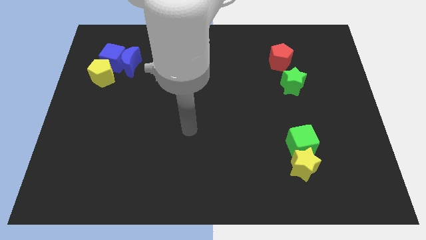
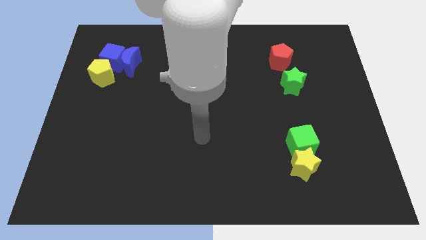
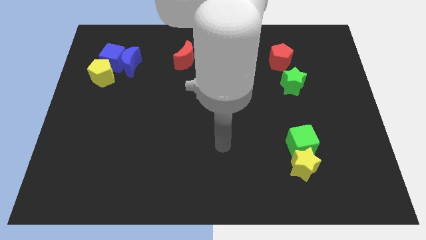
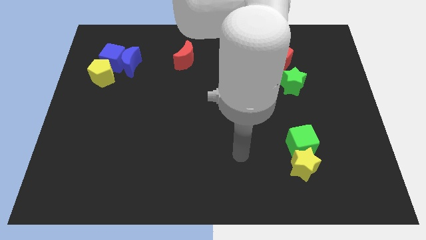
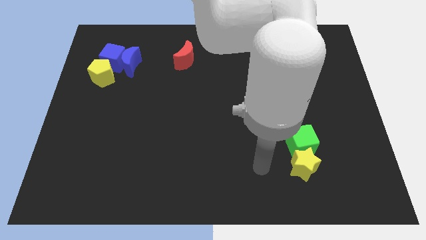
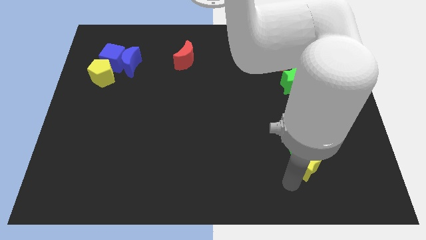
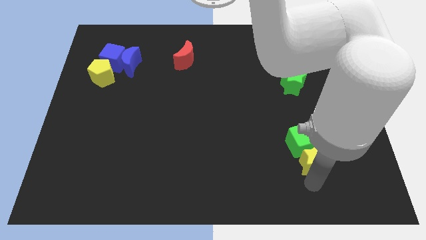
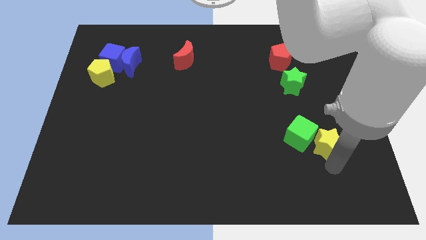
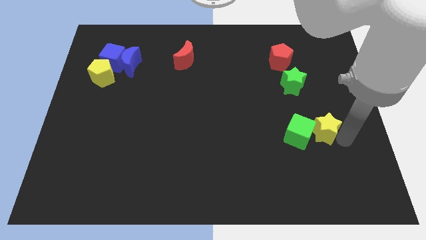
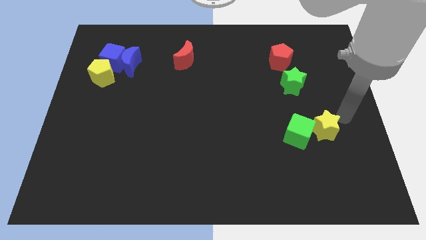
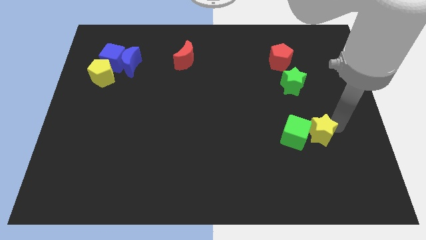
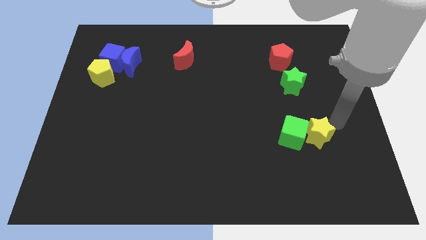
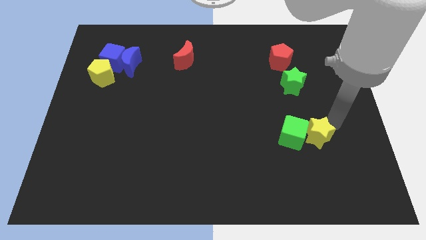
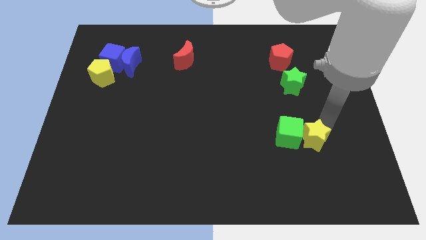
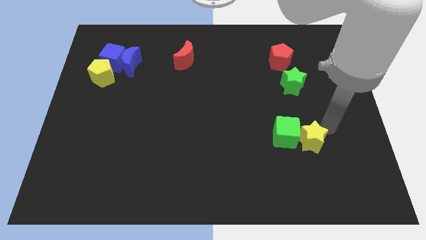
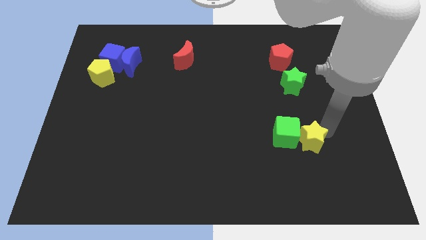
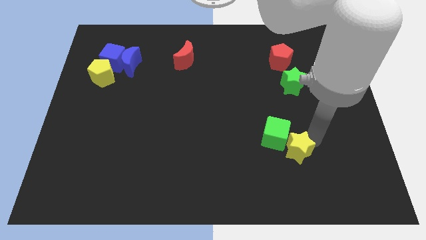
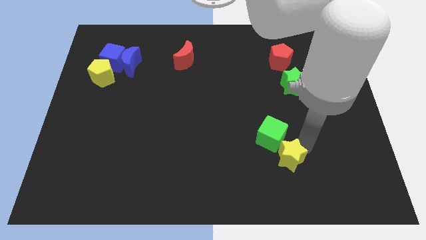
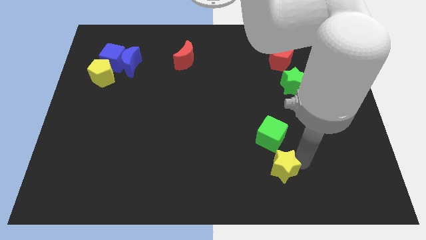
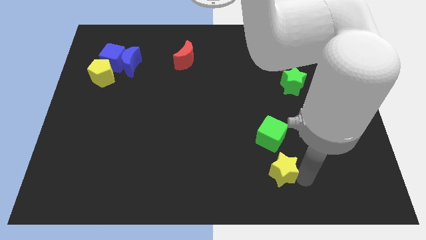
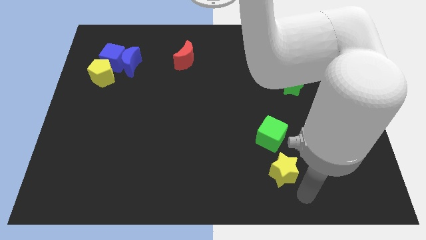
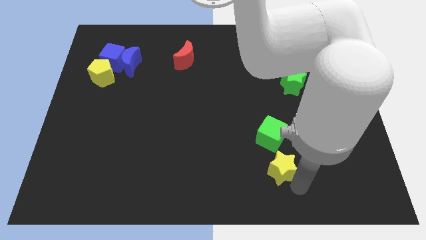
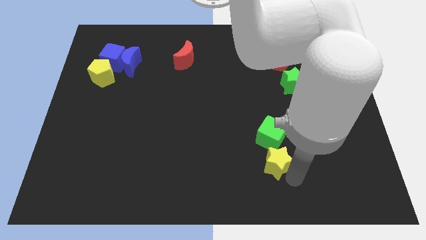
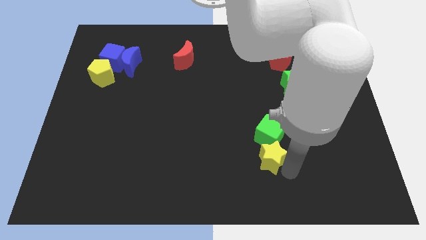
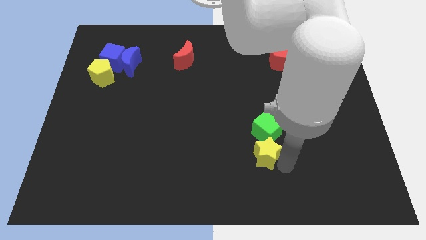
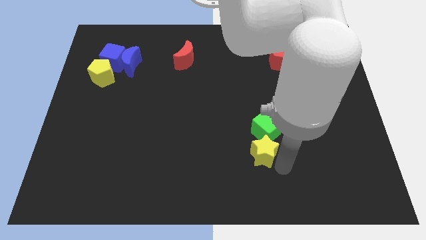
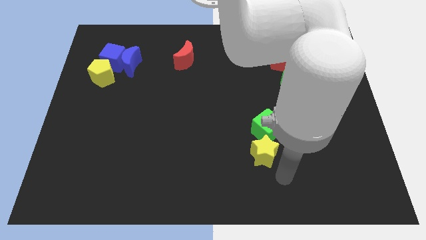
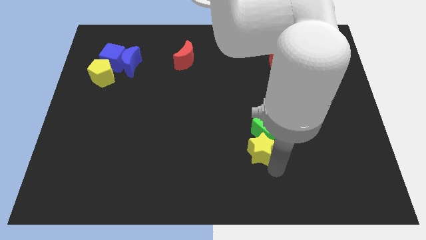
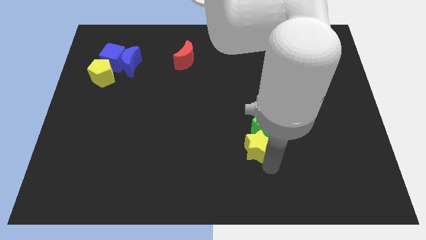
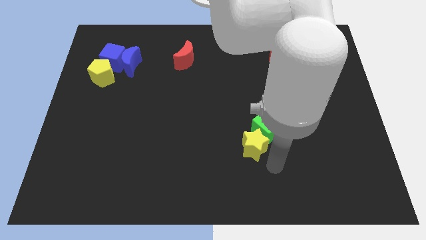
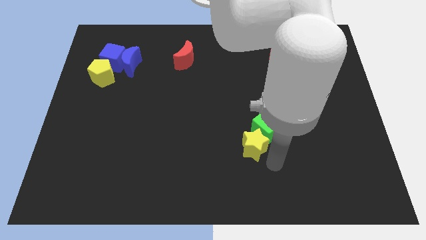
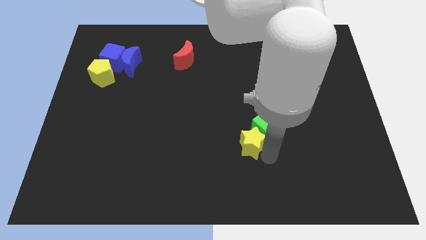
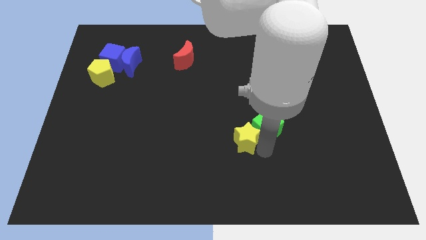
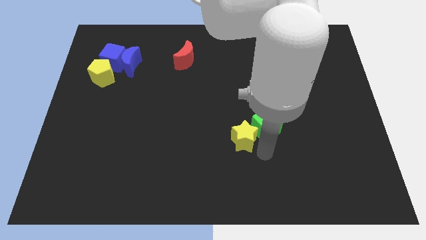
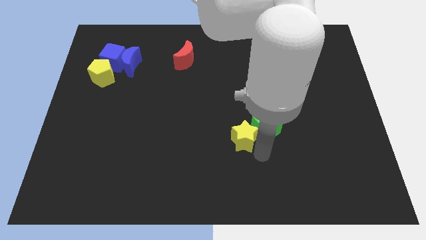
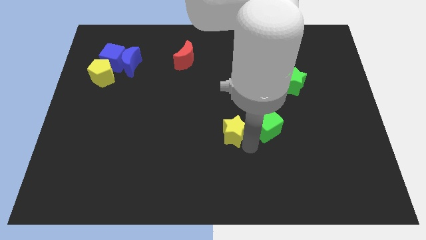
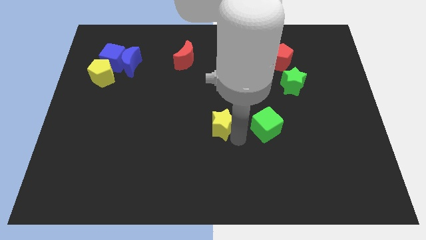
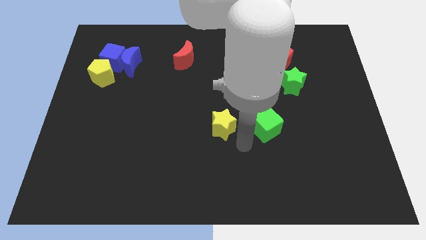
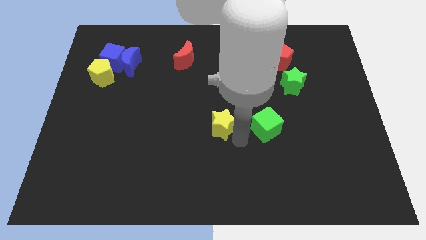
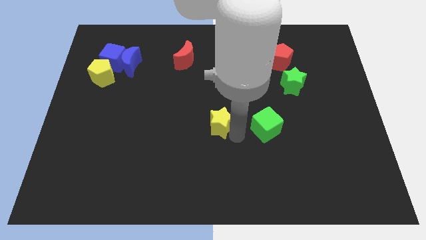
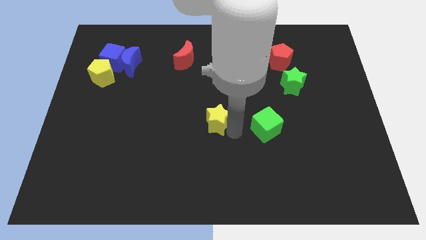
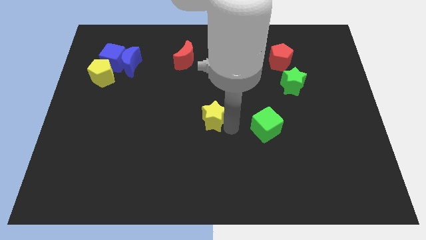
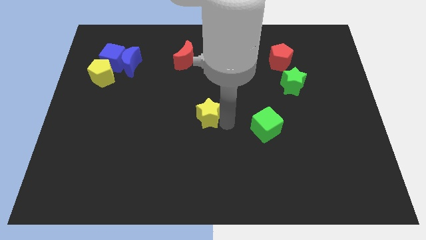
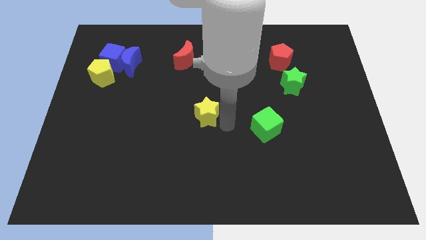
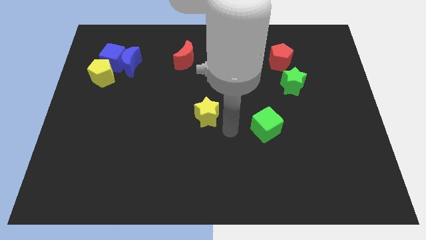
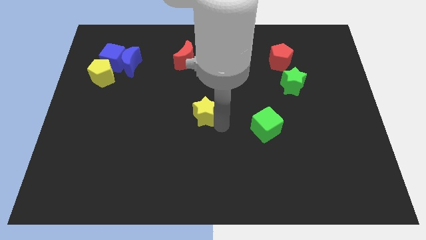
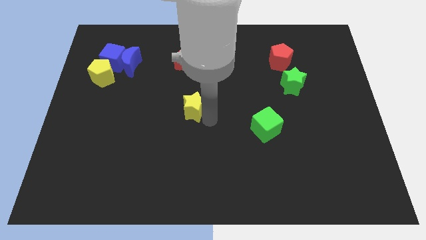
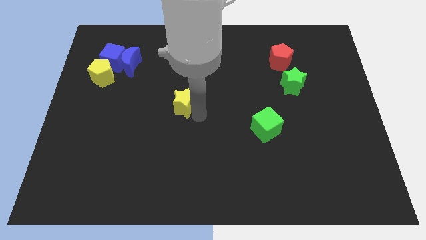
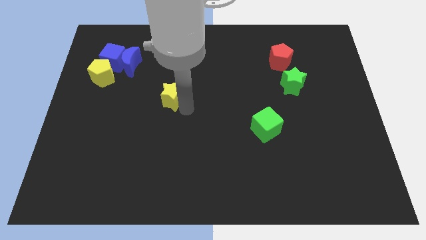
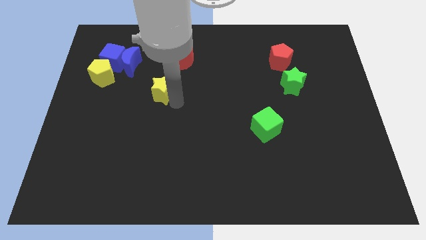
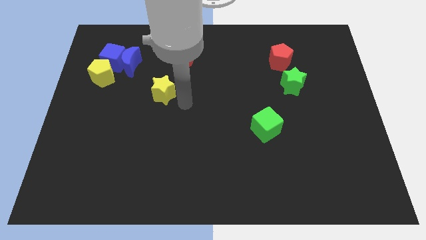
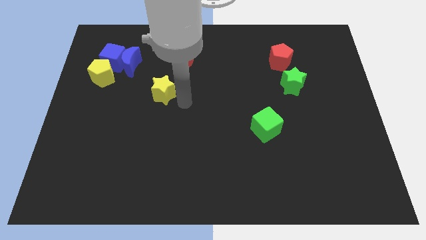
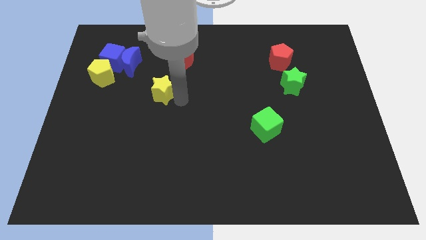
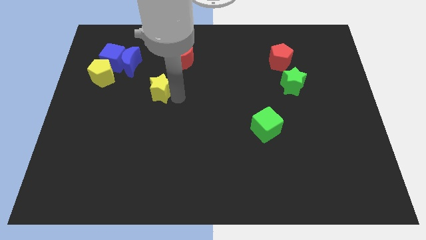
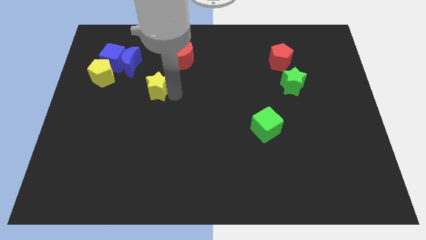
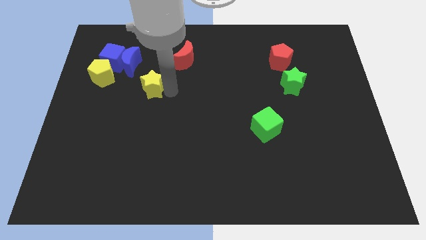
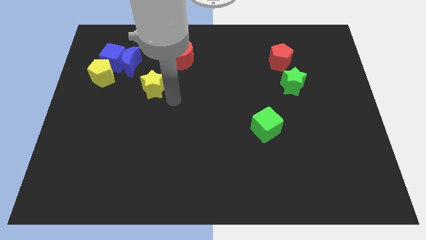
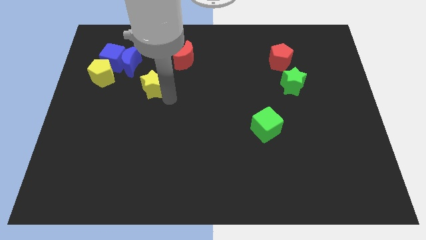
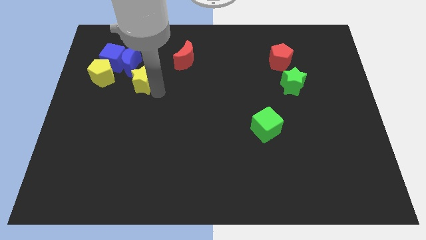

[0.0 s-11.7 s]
push the yellow star diagonally down and to the right of the blue cube

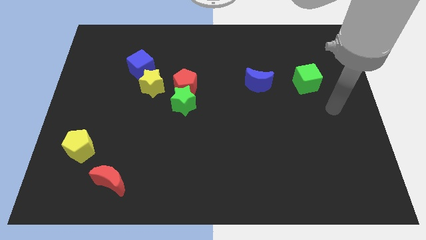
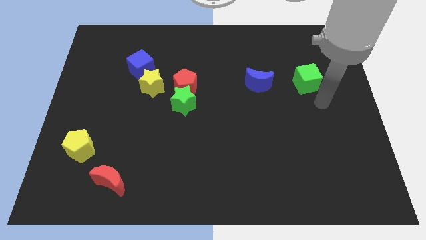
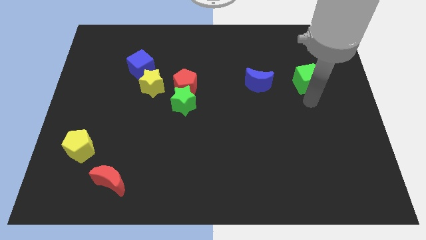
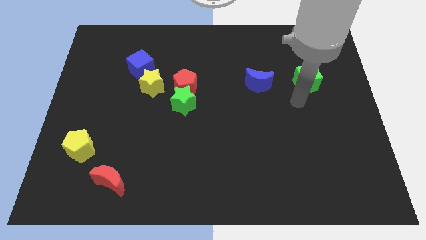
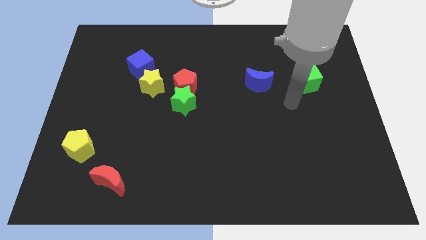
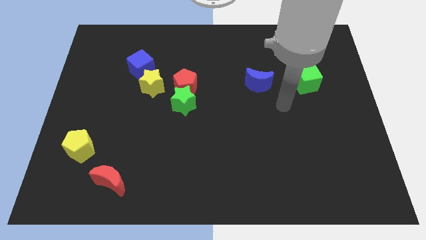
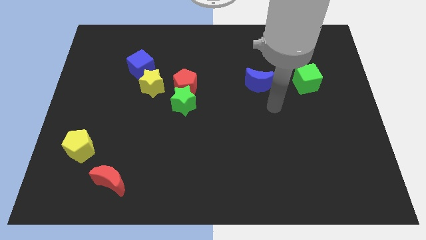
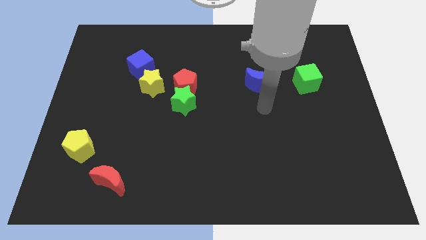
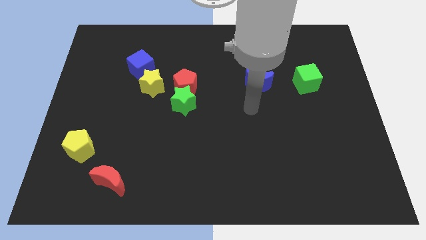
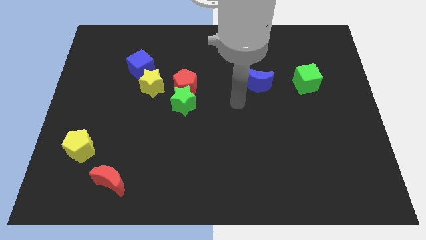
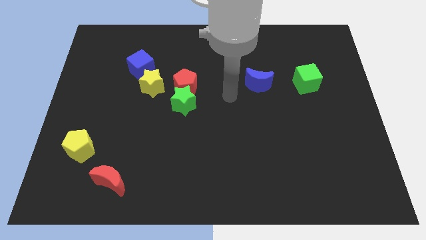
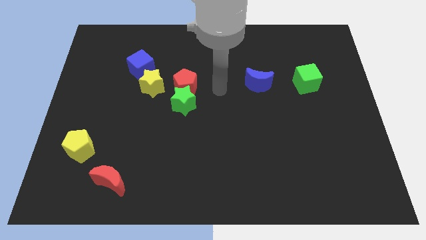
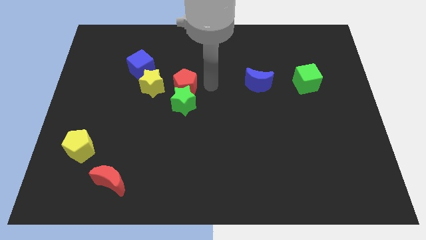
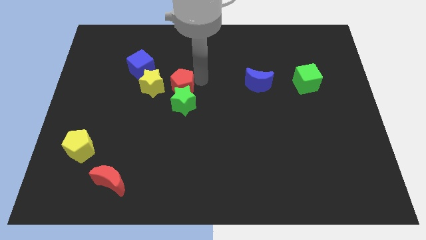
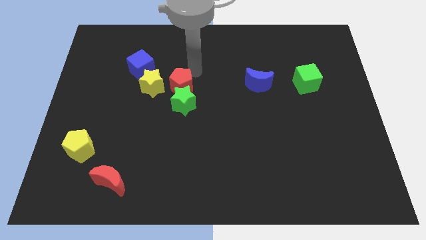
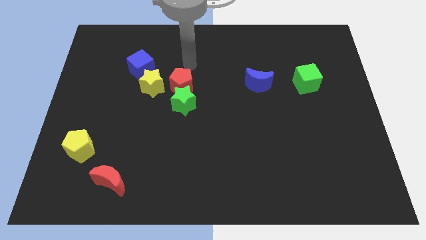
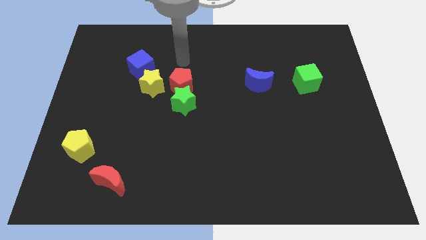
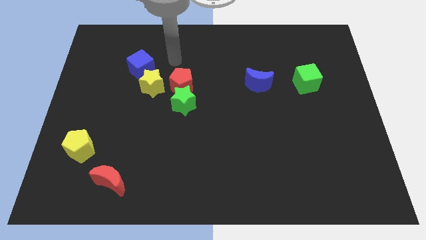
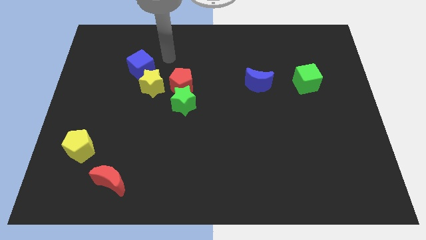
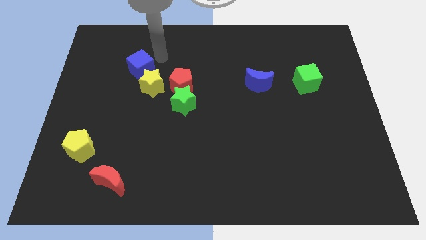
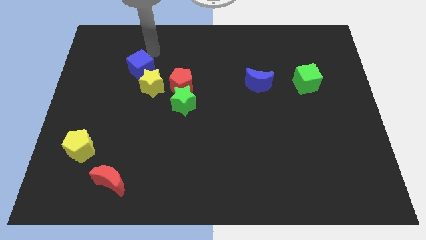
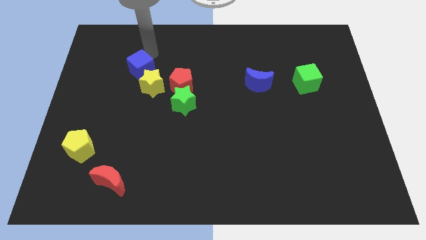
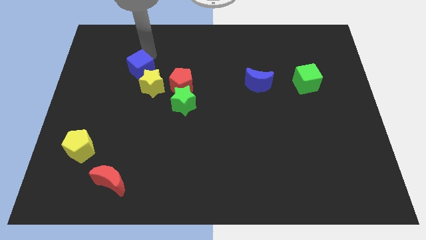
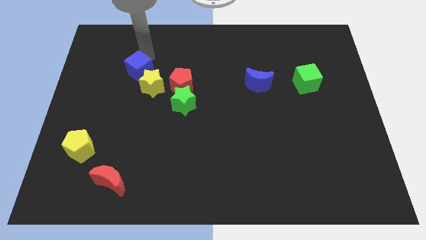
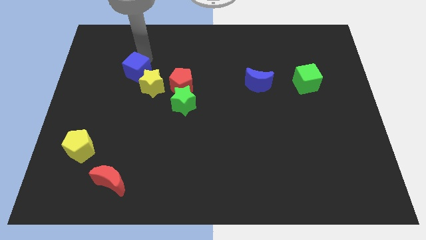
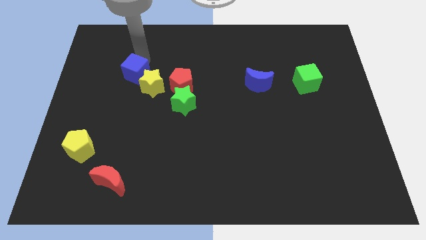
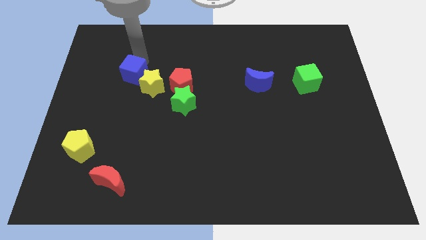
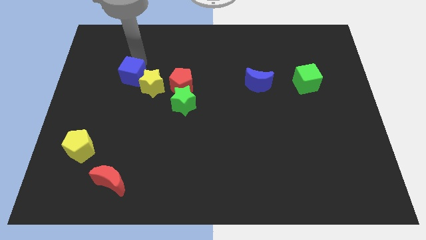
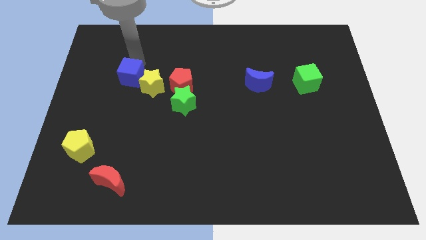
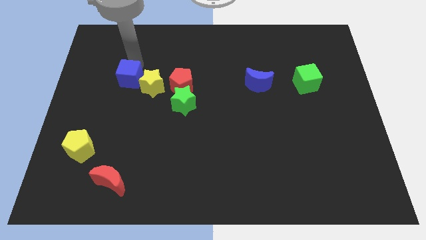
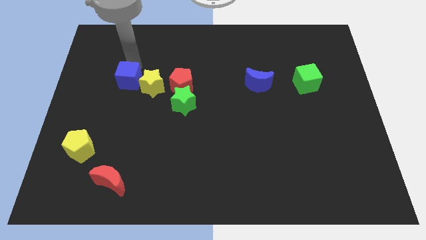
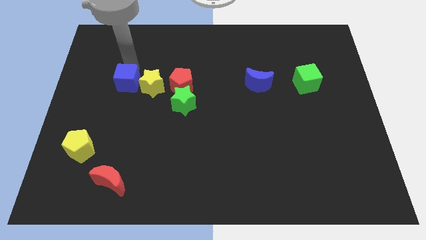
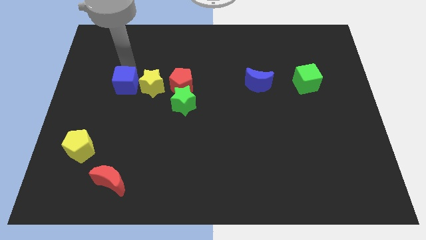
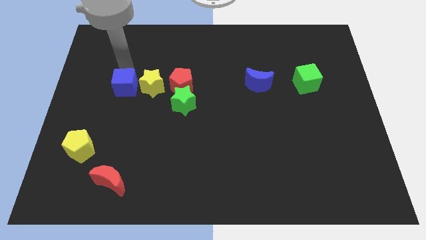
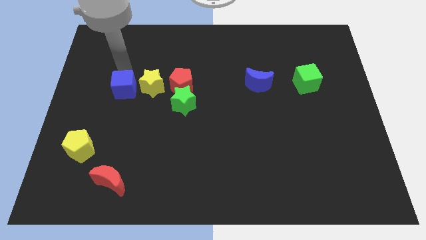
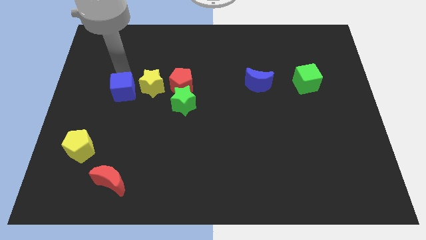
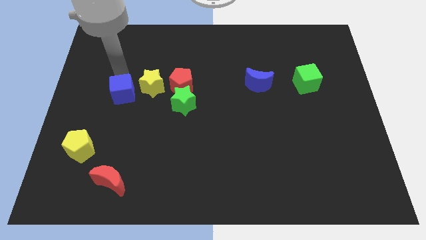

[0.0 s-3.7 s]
slide the blue cube left of the green star
